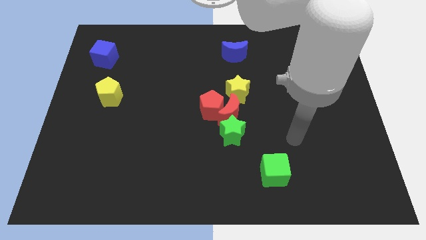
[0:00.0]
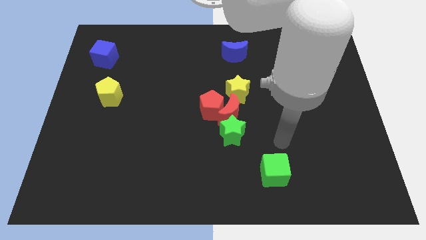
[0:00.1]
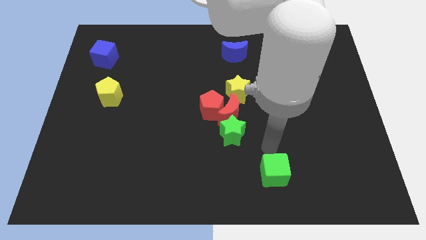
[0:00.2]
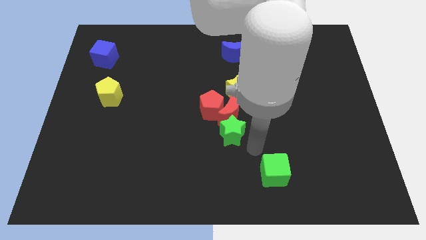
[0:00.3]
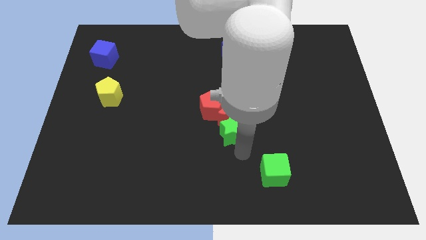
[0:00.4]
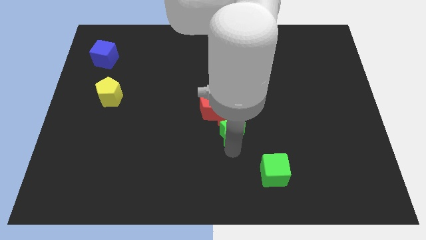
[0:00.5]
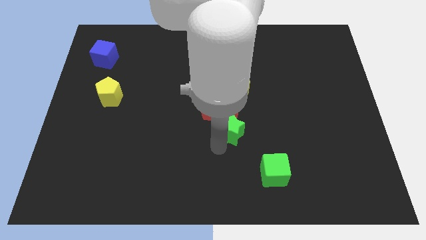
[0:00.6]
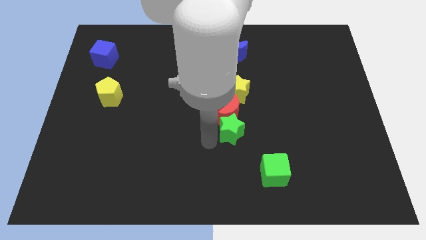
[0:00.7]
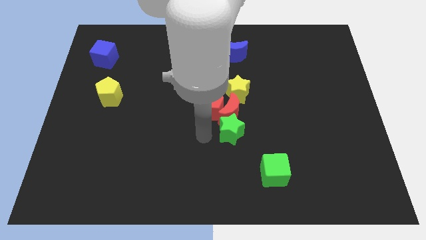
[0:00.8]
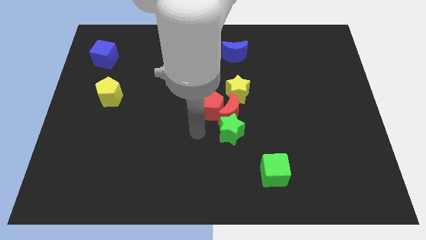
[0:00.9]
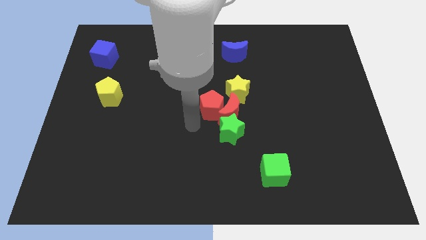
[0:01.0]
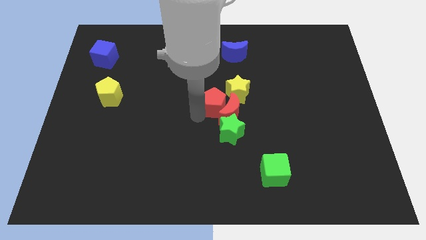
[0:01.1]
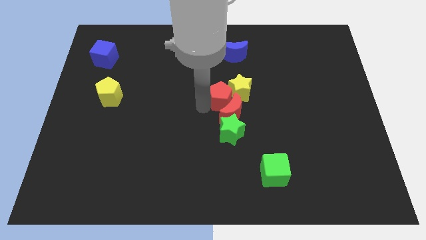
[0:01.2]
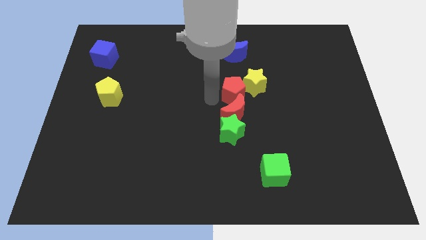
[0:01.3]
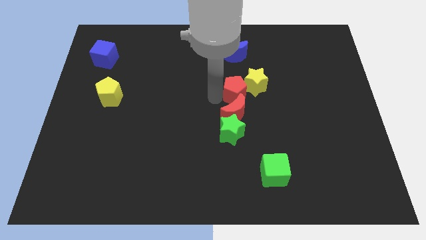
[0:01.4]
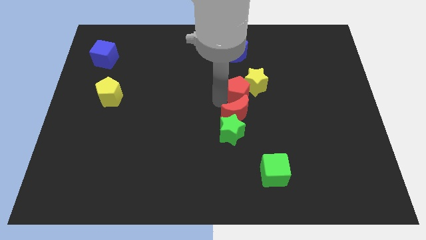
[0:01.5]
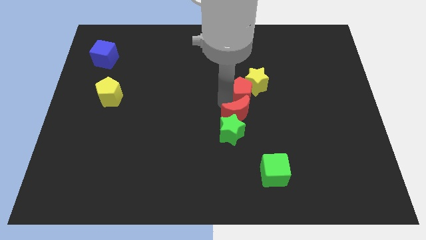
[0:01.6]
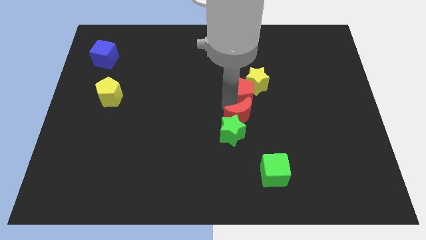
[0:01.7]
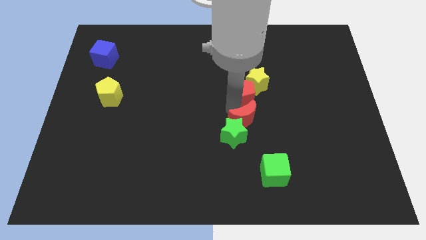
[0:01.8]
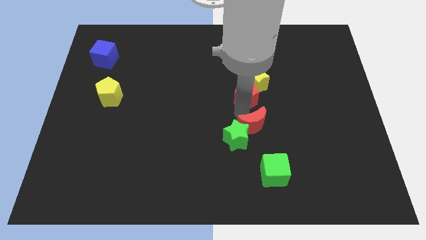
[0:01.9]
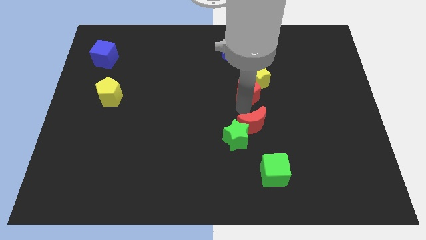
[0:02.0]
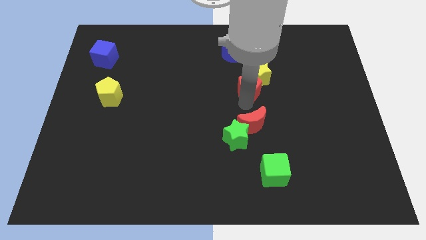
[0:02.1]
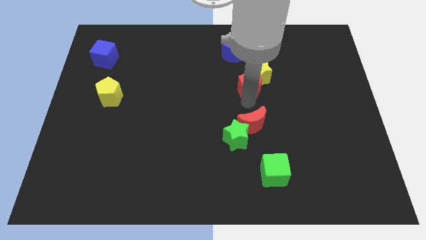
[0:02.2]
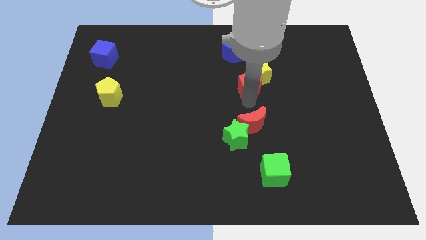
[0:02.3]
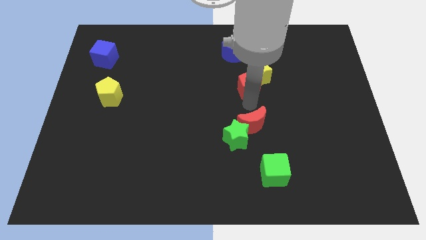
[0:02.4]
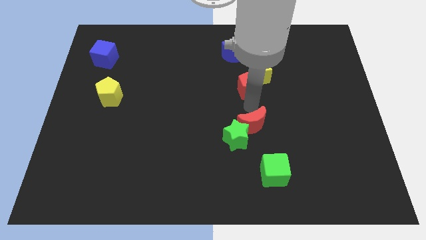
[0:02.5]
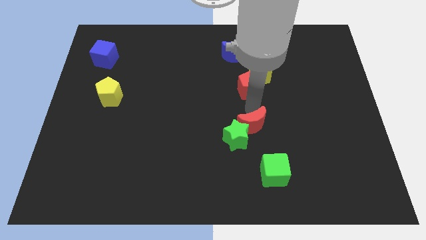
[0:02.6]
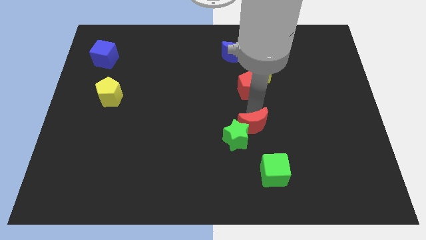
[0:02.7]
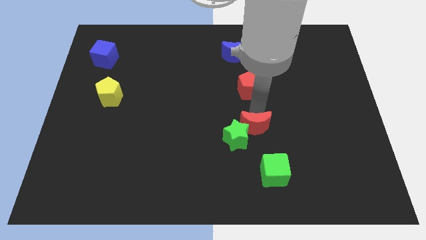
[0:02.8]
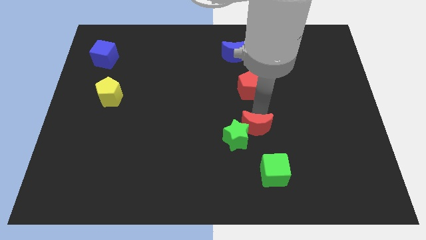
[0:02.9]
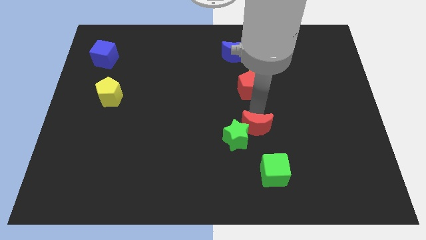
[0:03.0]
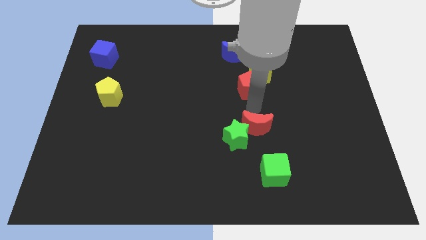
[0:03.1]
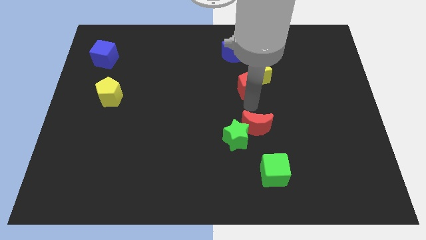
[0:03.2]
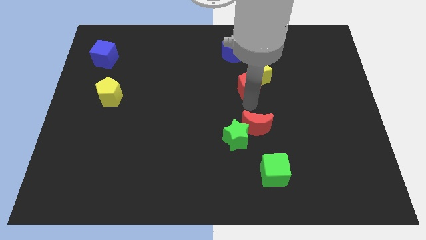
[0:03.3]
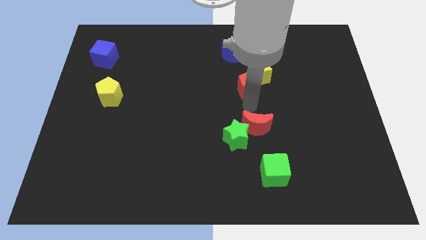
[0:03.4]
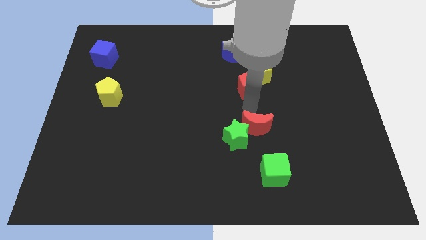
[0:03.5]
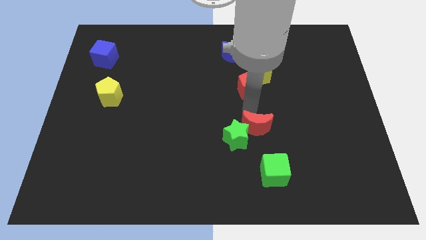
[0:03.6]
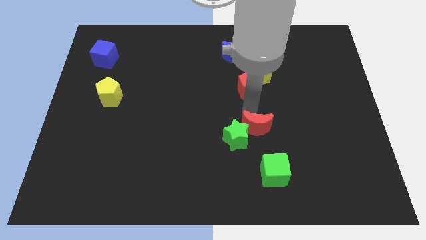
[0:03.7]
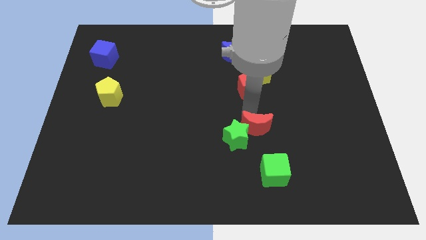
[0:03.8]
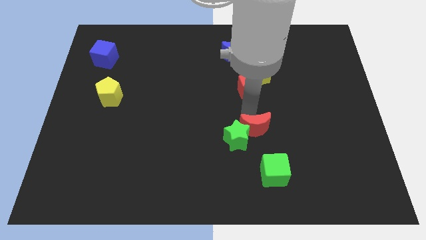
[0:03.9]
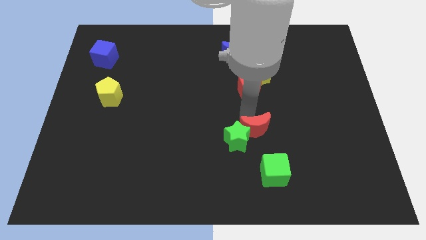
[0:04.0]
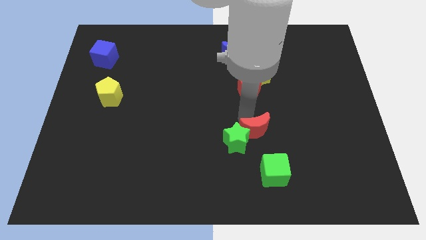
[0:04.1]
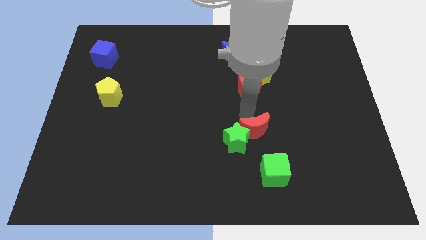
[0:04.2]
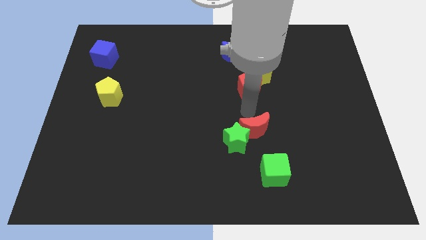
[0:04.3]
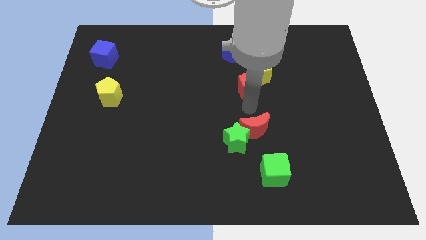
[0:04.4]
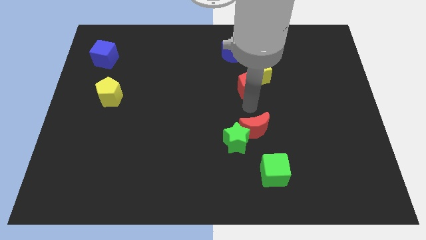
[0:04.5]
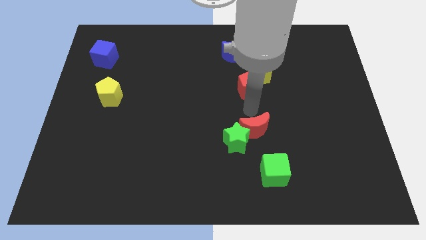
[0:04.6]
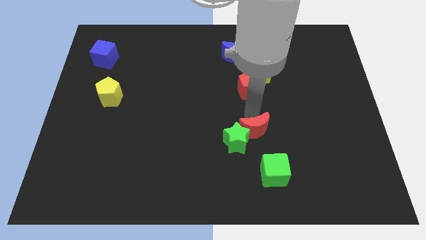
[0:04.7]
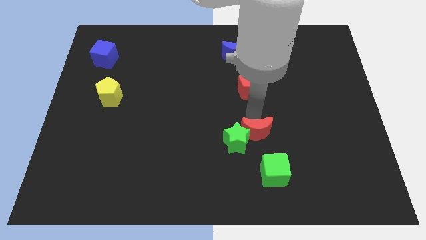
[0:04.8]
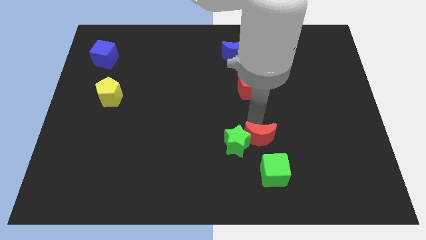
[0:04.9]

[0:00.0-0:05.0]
move the red moon away from the red pentagon, green star, and yellow star

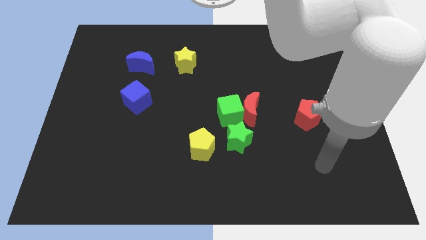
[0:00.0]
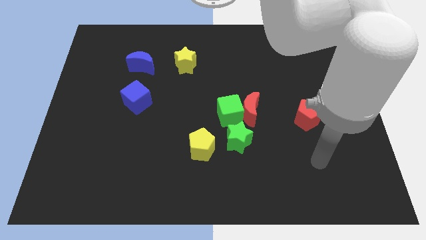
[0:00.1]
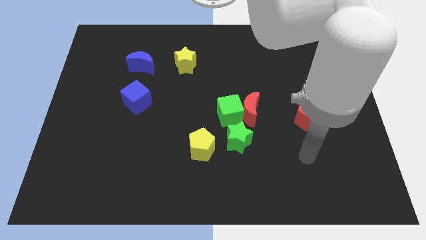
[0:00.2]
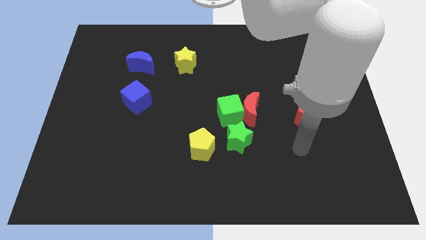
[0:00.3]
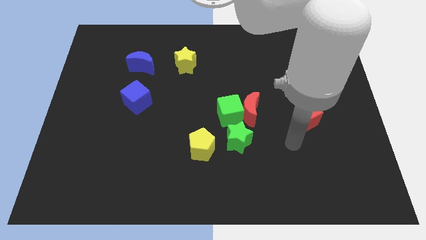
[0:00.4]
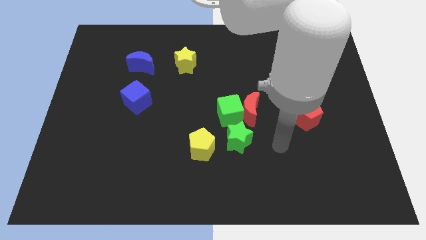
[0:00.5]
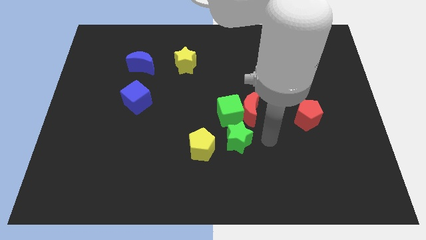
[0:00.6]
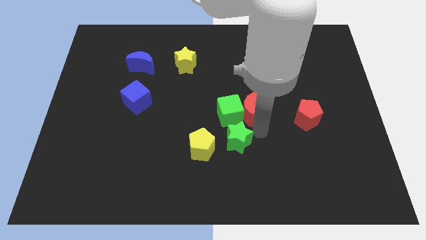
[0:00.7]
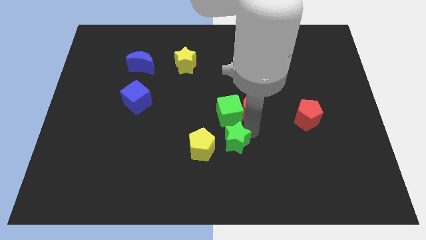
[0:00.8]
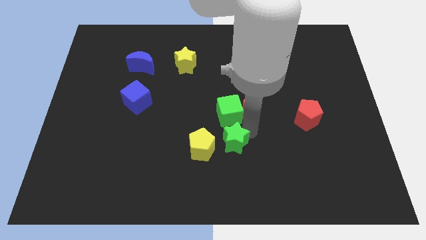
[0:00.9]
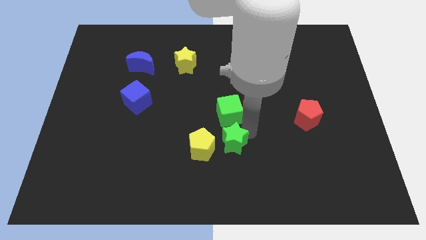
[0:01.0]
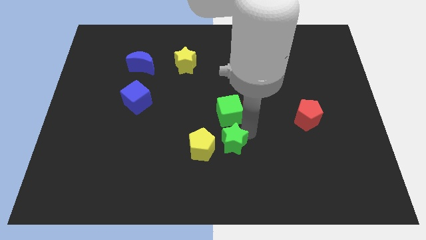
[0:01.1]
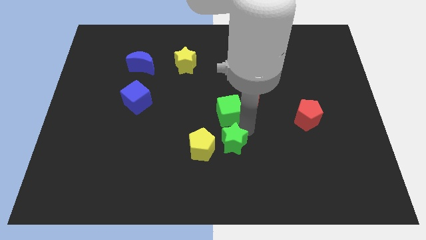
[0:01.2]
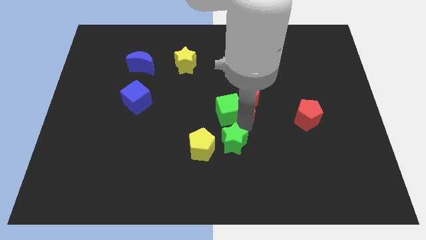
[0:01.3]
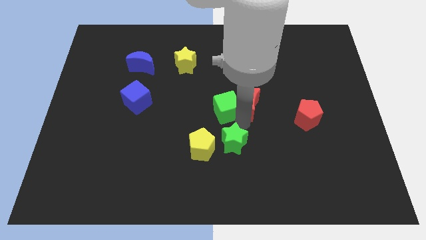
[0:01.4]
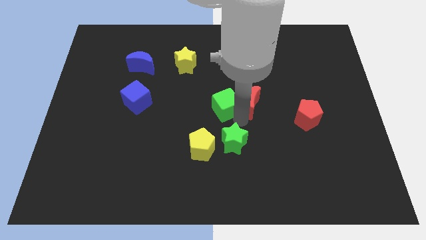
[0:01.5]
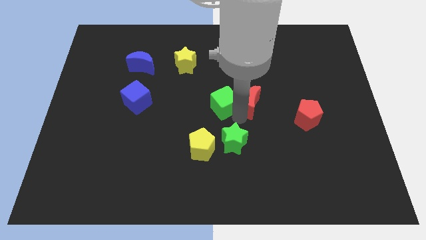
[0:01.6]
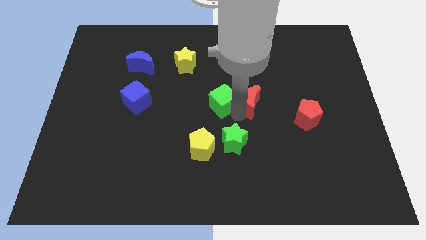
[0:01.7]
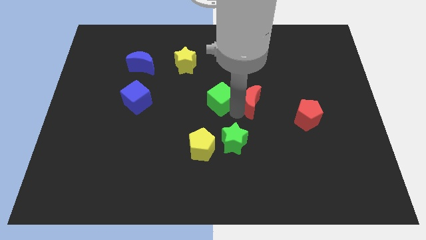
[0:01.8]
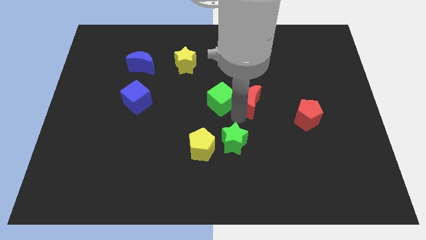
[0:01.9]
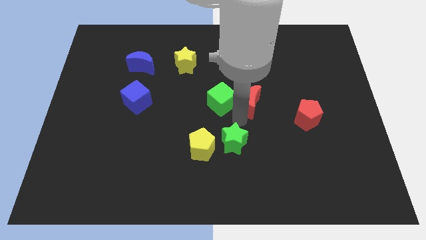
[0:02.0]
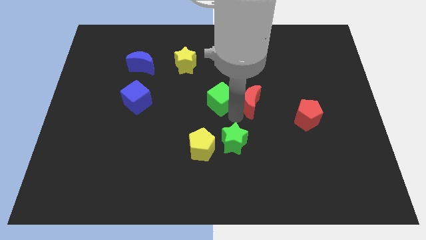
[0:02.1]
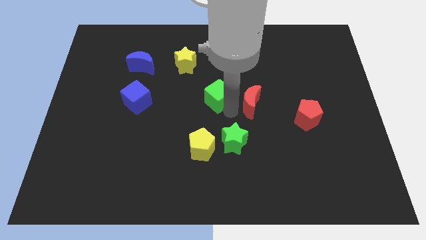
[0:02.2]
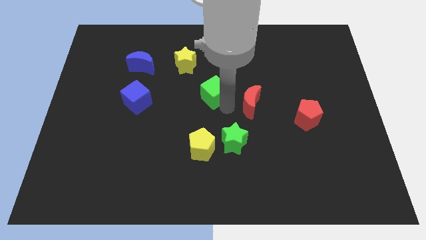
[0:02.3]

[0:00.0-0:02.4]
move the green cube away from the red moon and green star

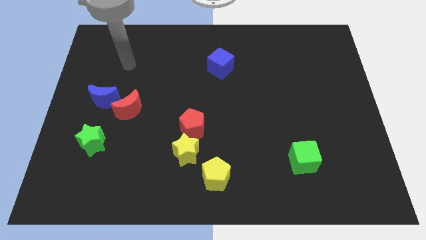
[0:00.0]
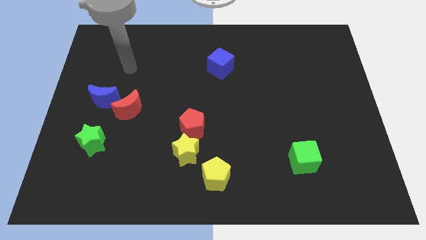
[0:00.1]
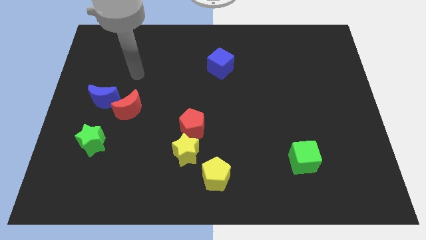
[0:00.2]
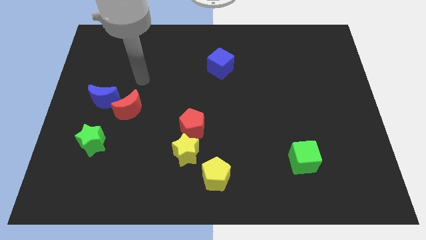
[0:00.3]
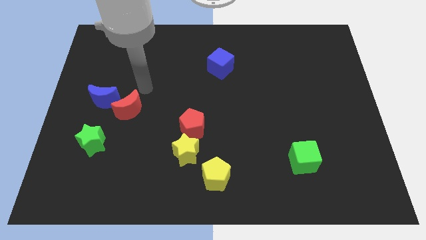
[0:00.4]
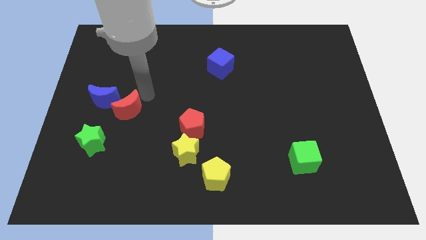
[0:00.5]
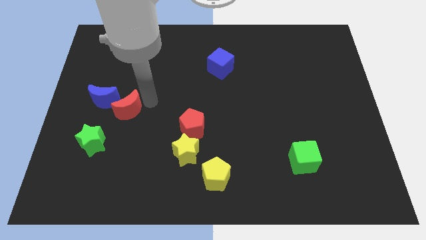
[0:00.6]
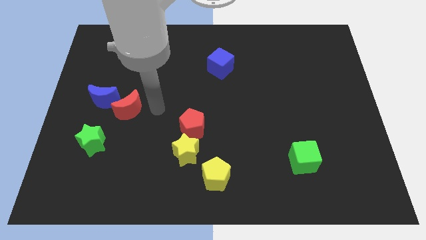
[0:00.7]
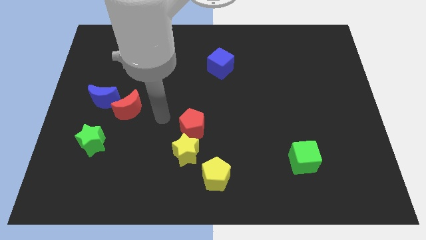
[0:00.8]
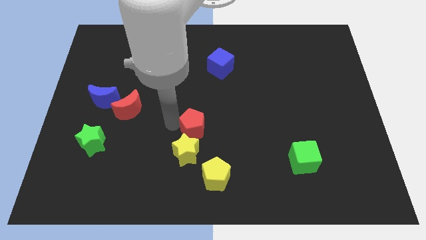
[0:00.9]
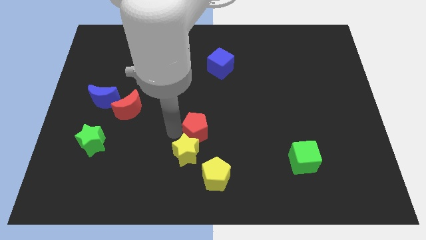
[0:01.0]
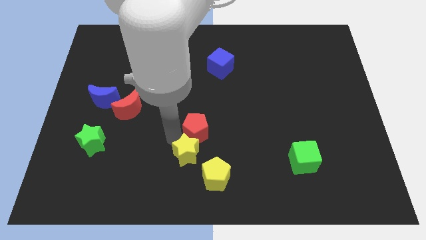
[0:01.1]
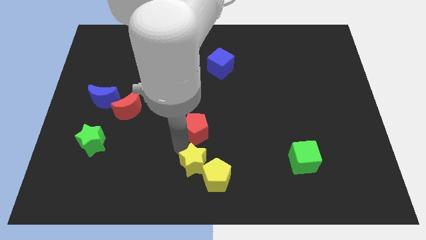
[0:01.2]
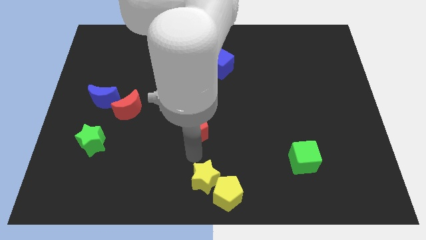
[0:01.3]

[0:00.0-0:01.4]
move the red pentagon away from the yellow star

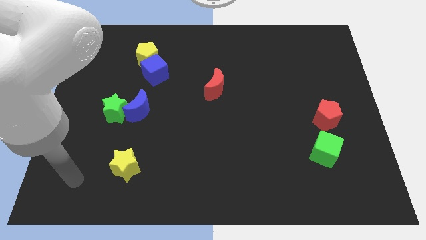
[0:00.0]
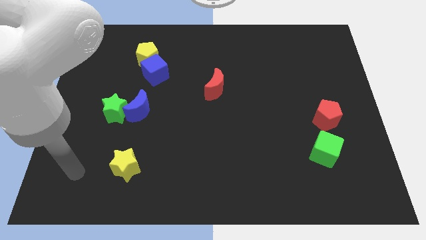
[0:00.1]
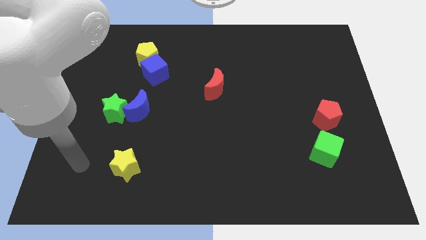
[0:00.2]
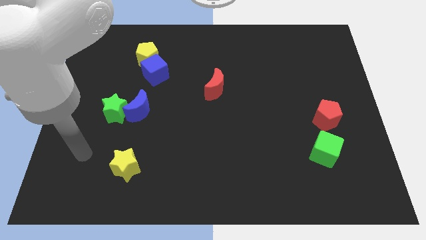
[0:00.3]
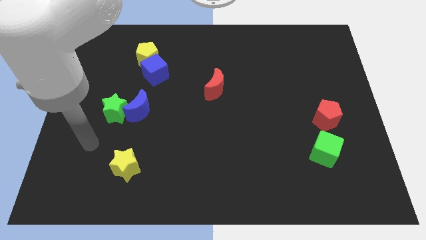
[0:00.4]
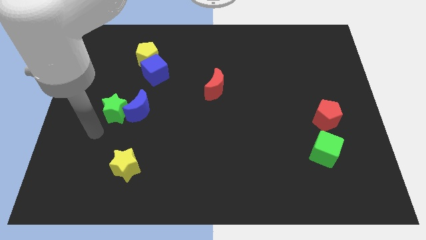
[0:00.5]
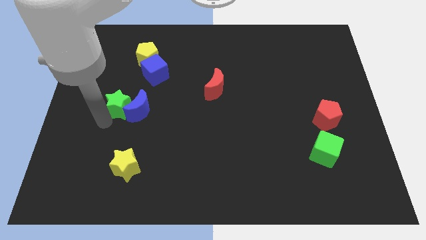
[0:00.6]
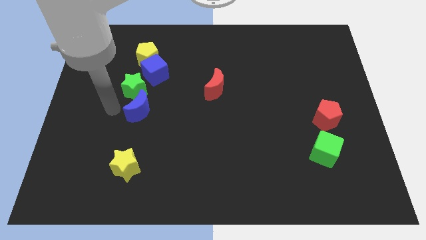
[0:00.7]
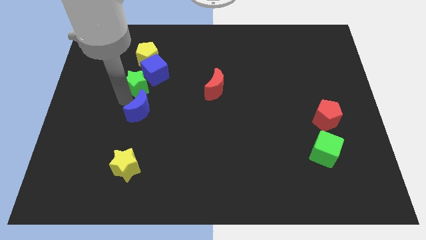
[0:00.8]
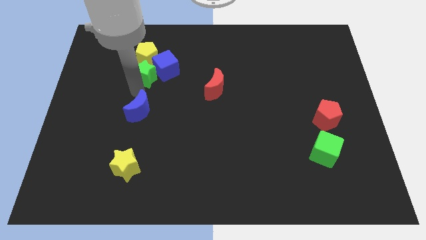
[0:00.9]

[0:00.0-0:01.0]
separate the blue moon from the green star
